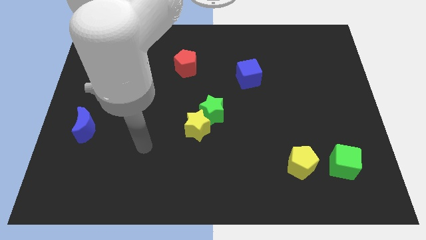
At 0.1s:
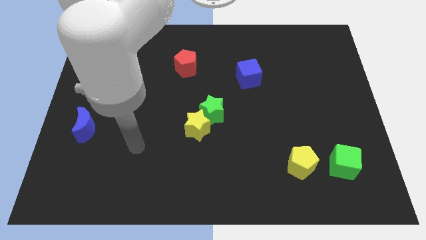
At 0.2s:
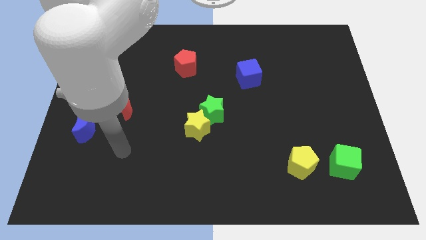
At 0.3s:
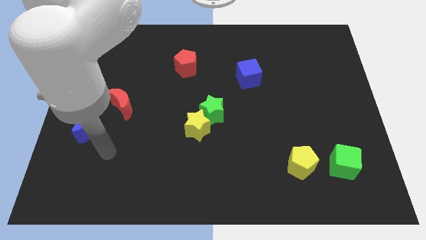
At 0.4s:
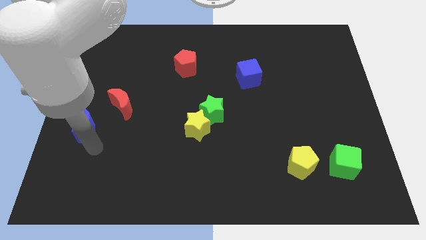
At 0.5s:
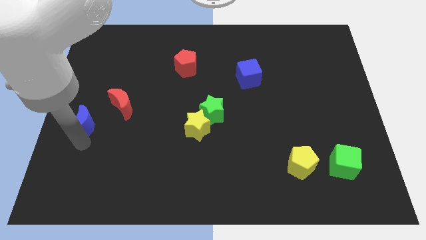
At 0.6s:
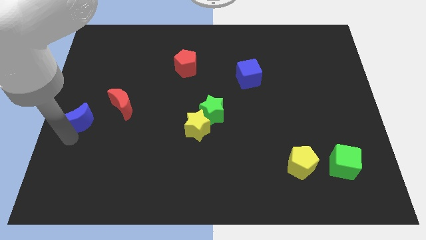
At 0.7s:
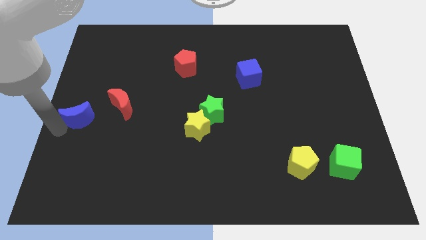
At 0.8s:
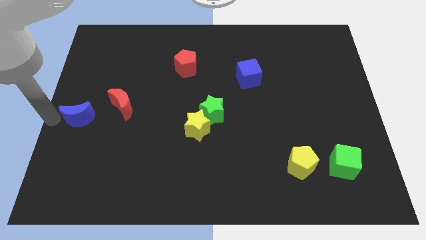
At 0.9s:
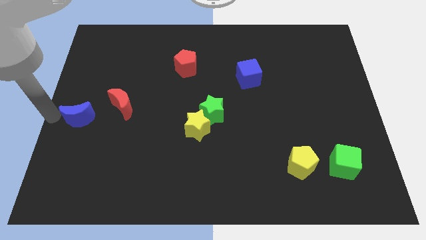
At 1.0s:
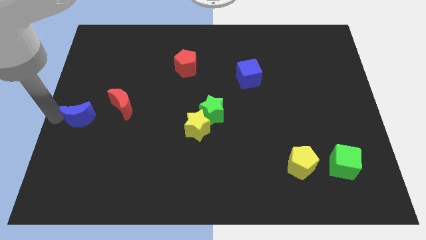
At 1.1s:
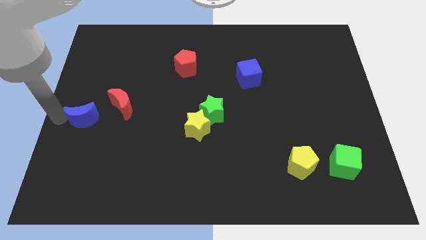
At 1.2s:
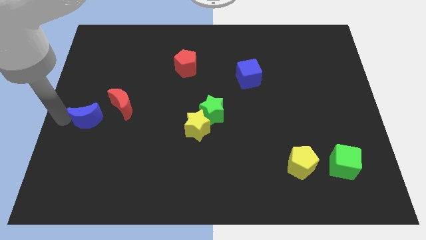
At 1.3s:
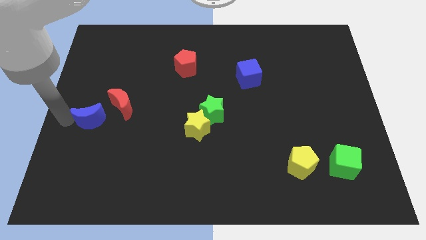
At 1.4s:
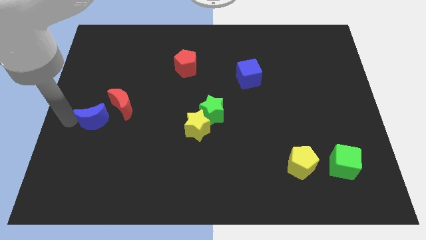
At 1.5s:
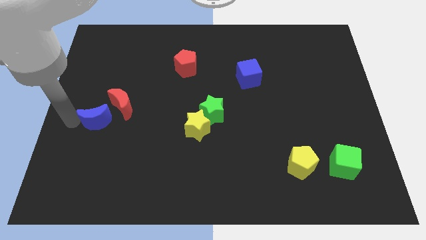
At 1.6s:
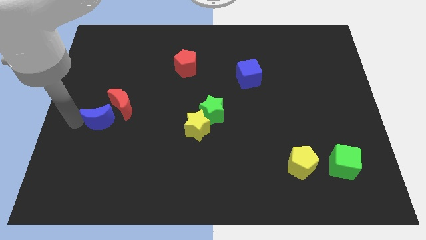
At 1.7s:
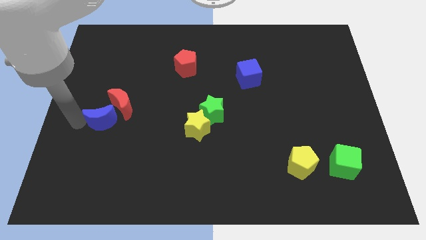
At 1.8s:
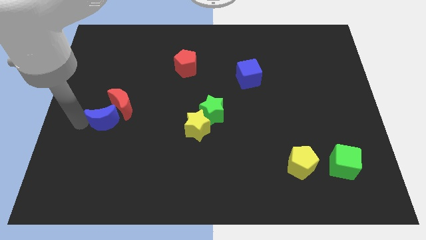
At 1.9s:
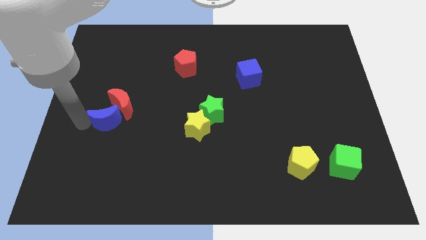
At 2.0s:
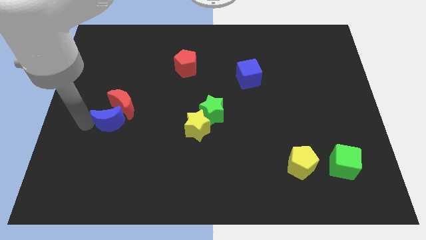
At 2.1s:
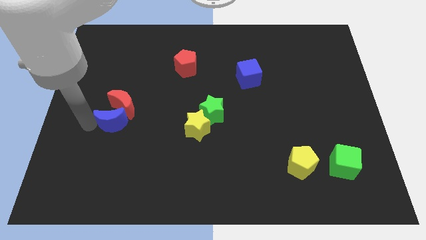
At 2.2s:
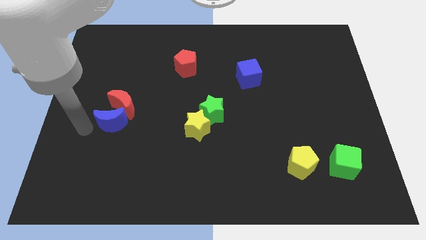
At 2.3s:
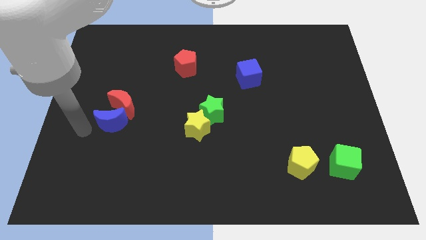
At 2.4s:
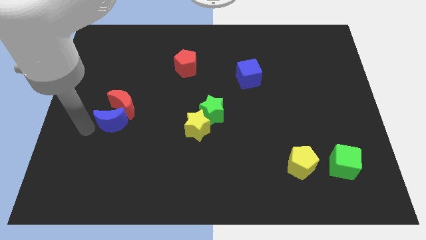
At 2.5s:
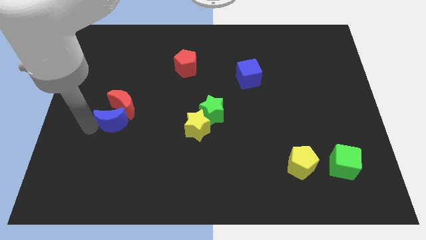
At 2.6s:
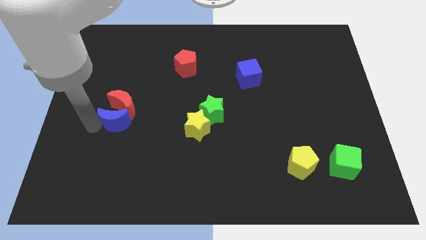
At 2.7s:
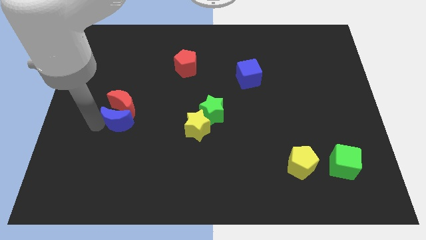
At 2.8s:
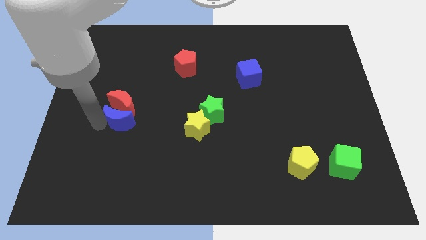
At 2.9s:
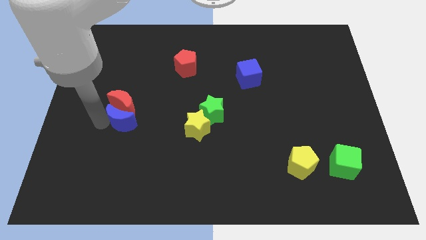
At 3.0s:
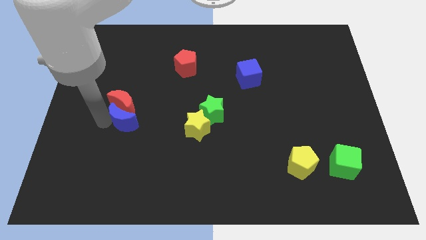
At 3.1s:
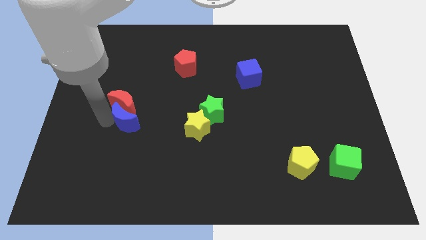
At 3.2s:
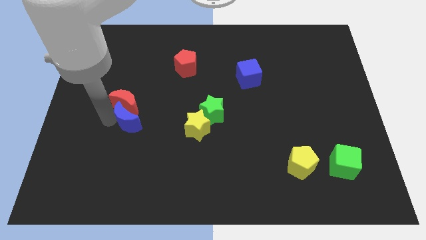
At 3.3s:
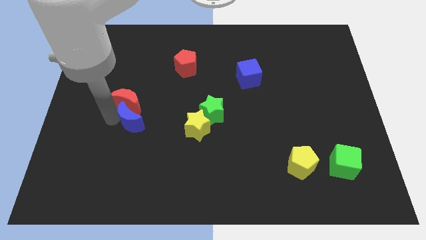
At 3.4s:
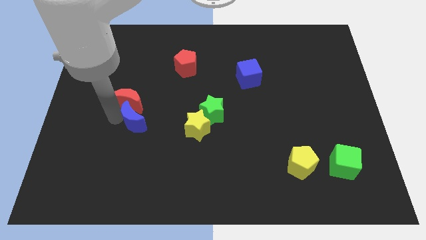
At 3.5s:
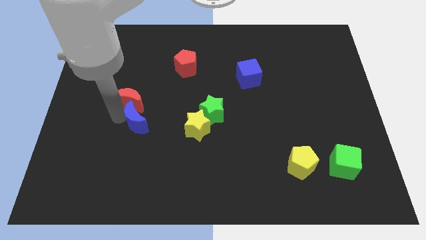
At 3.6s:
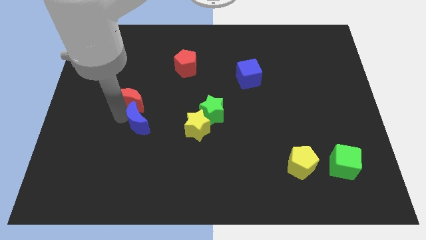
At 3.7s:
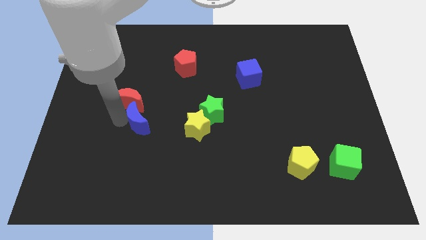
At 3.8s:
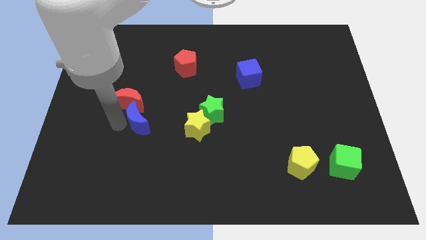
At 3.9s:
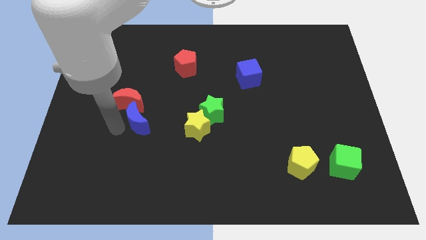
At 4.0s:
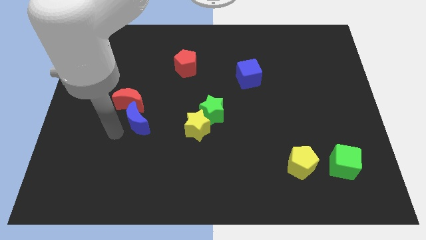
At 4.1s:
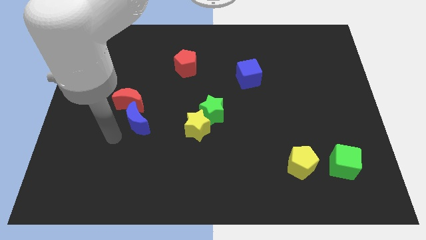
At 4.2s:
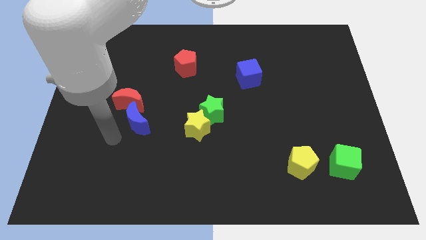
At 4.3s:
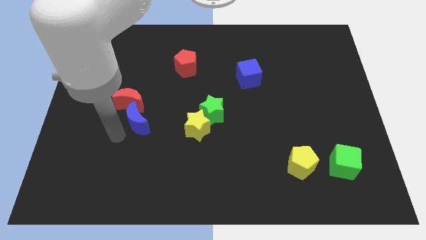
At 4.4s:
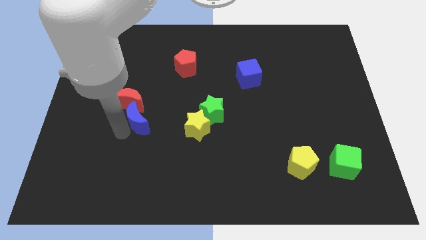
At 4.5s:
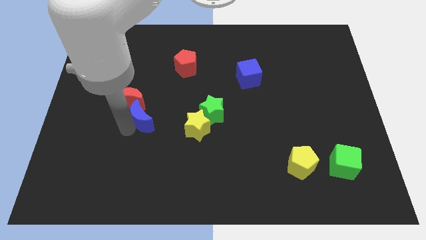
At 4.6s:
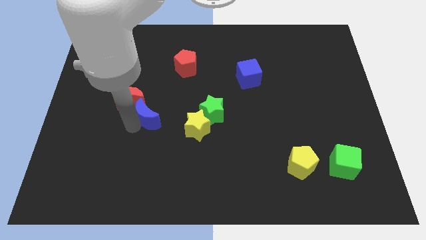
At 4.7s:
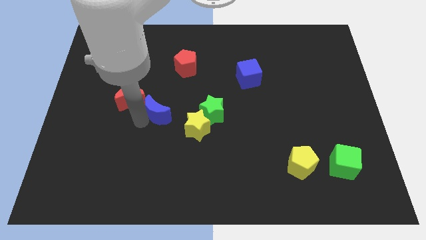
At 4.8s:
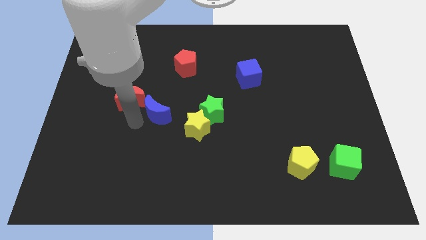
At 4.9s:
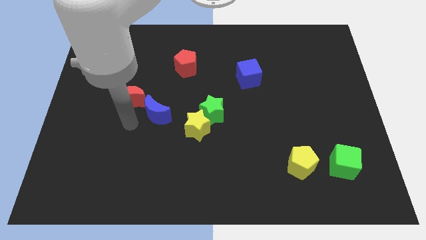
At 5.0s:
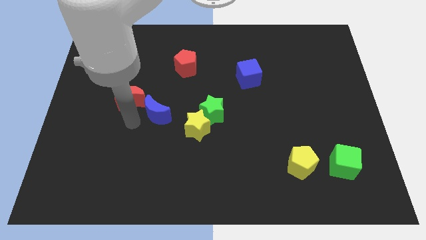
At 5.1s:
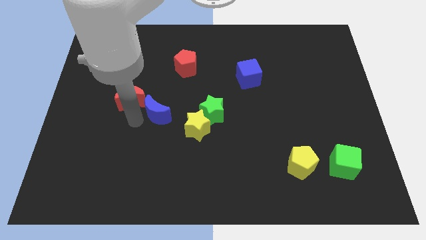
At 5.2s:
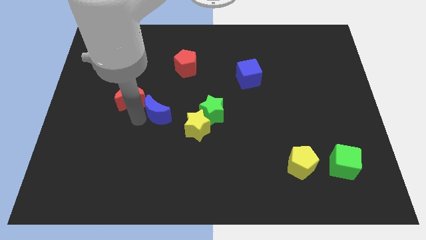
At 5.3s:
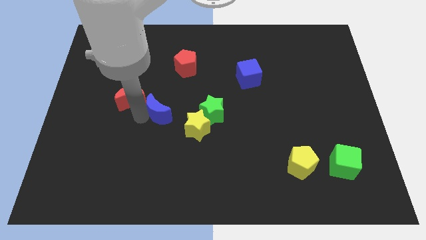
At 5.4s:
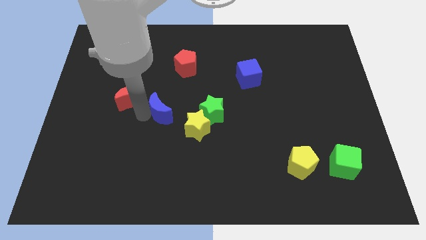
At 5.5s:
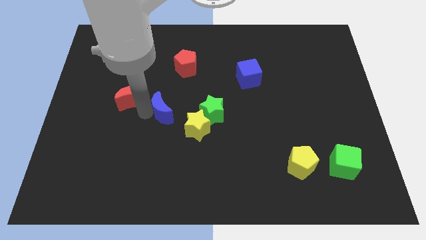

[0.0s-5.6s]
slide the blue moon to the middle
